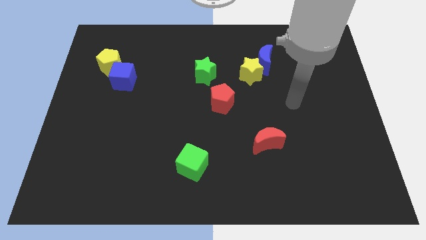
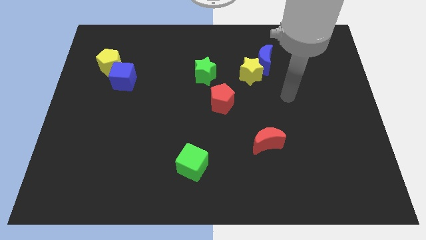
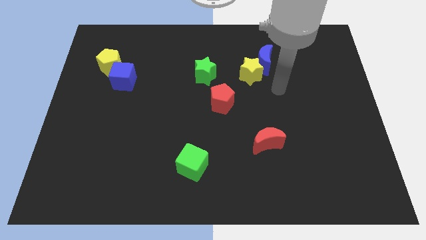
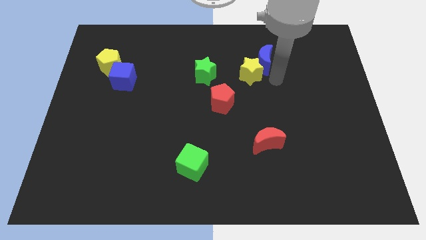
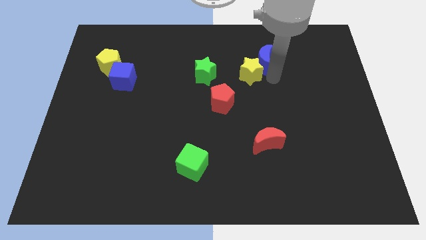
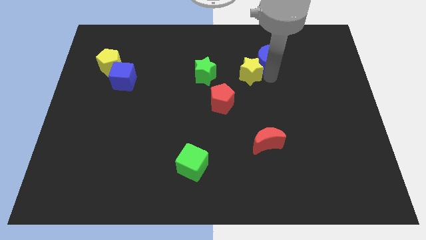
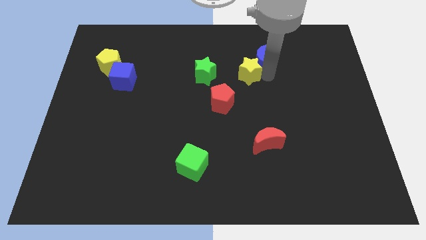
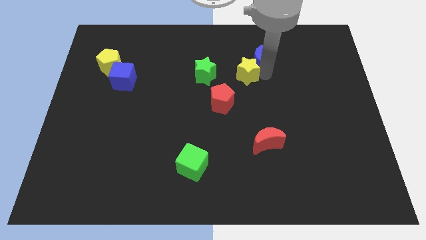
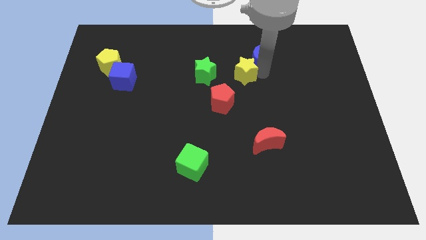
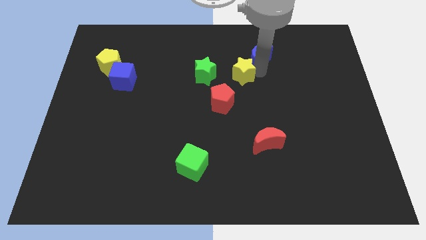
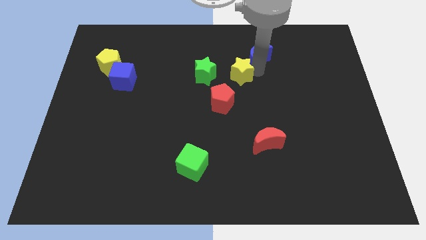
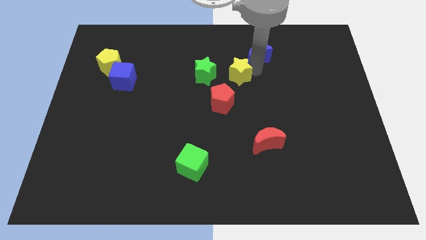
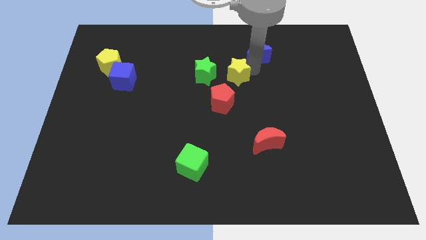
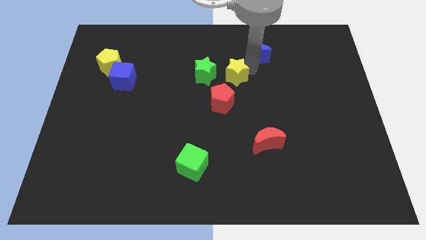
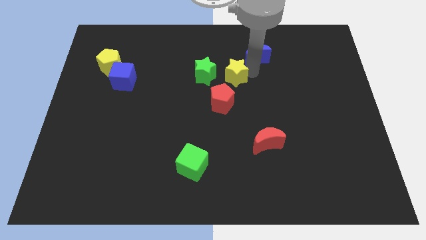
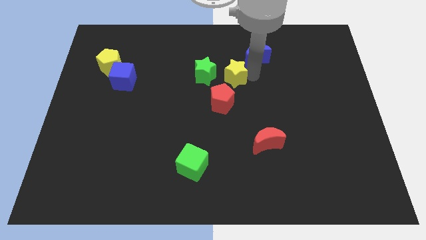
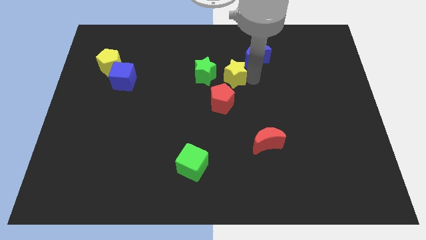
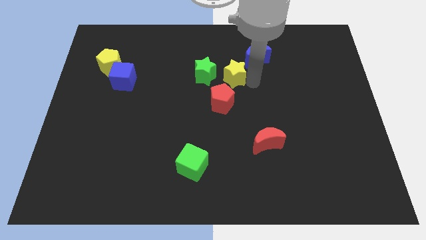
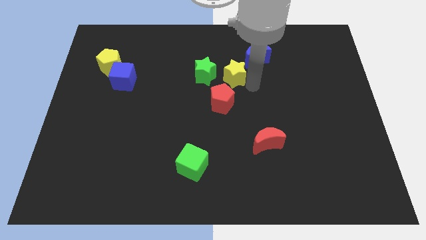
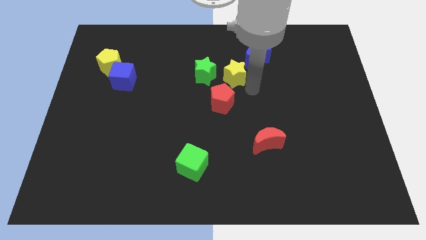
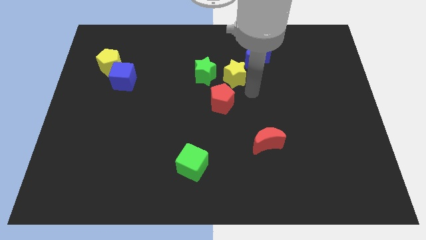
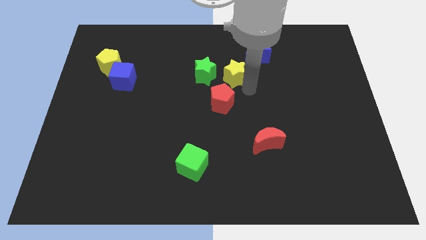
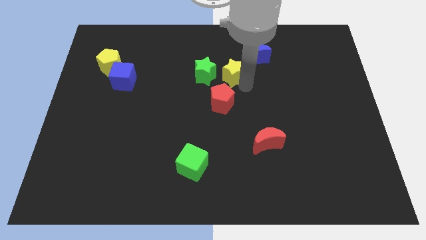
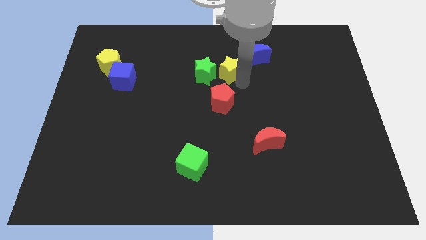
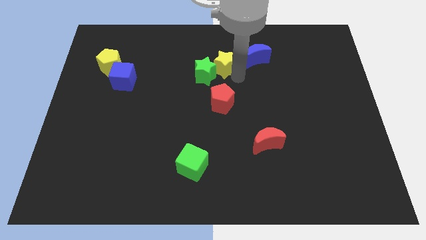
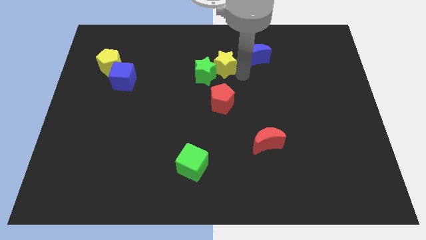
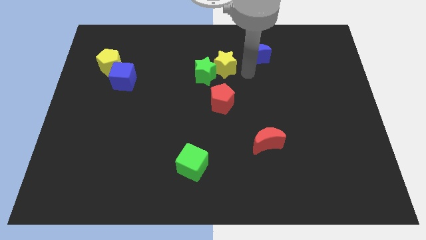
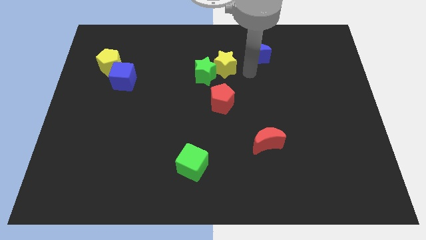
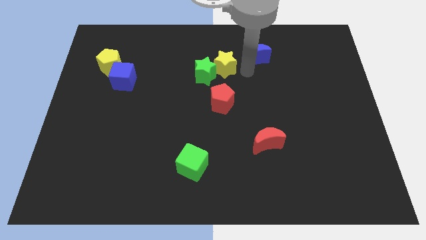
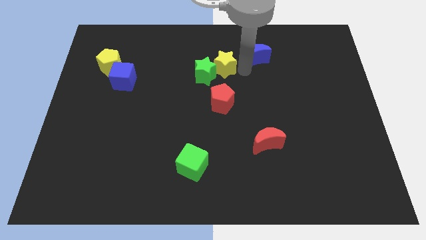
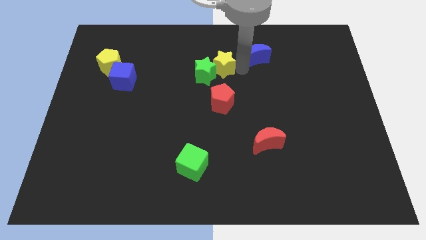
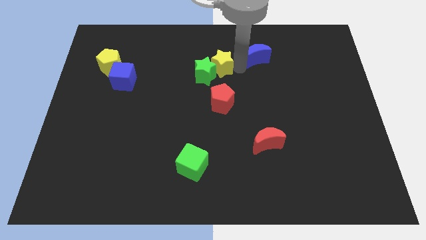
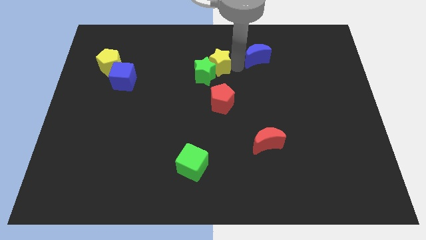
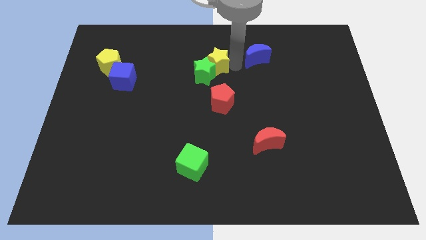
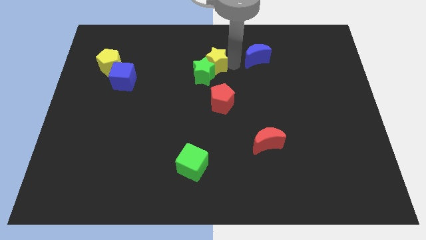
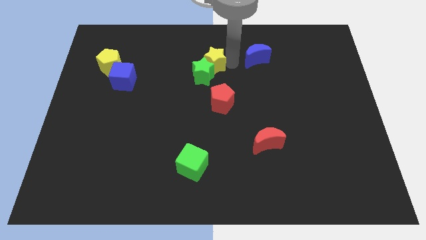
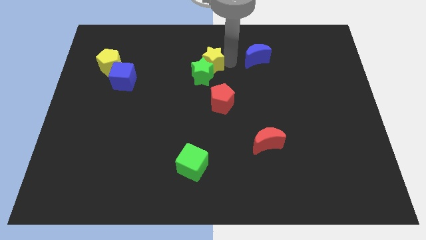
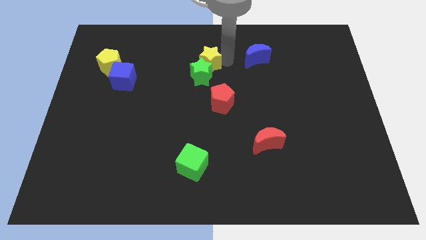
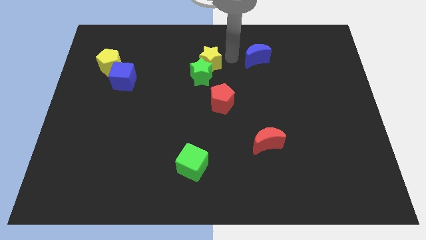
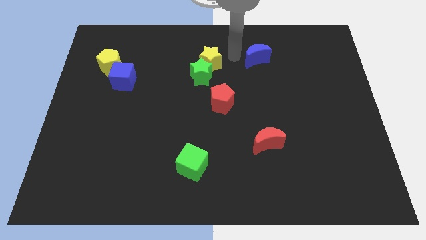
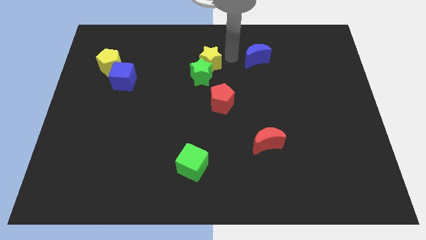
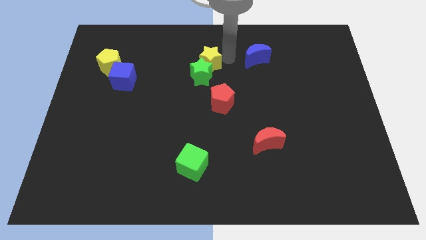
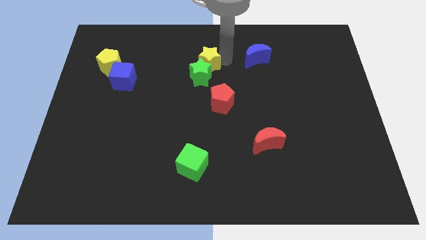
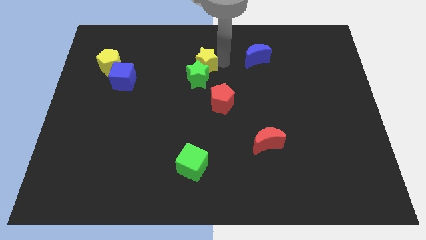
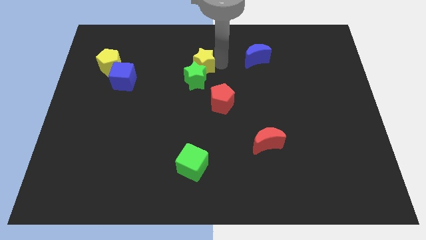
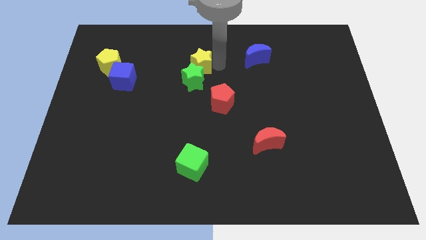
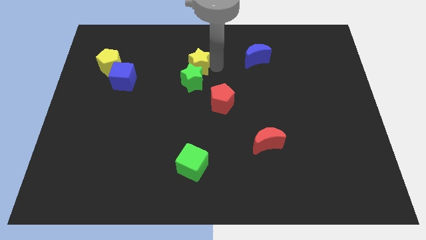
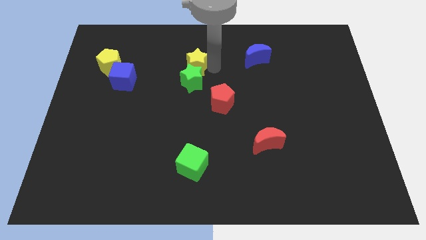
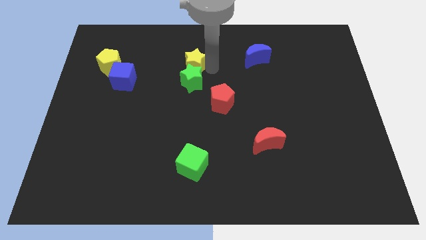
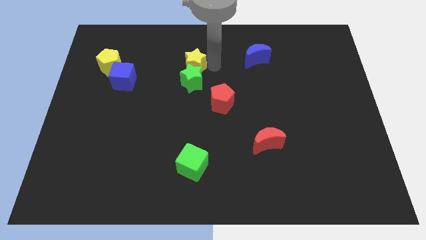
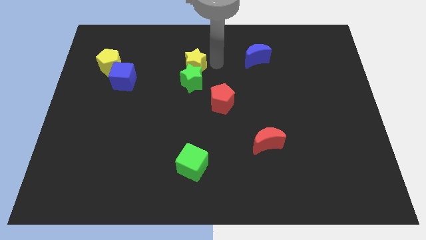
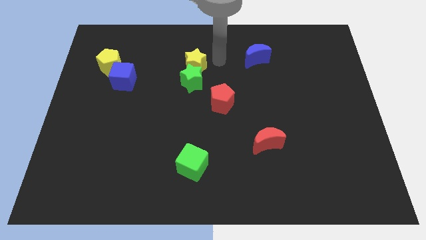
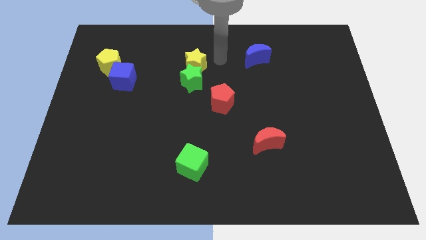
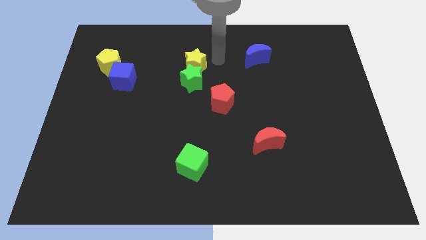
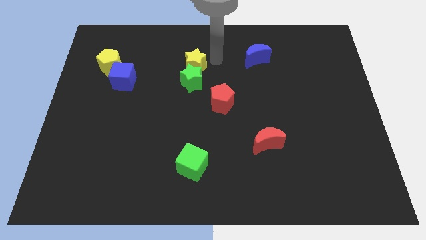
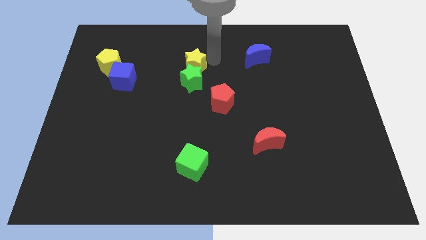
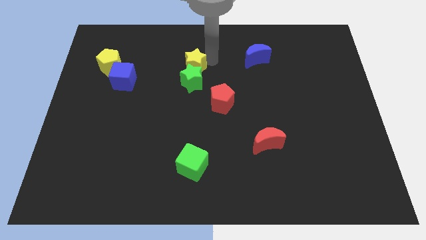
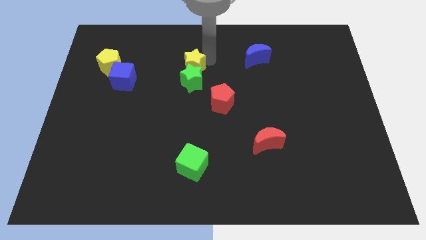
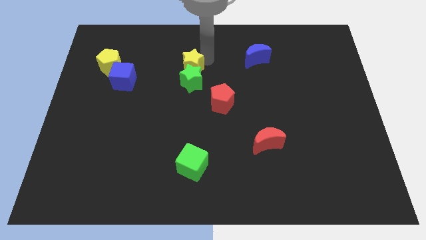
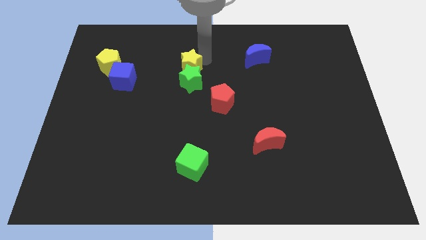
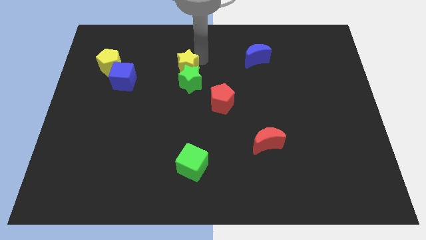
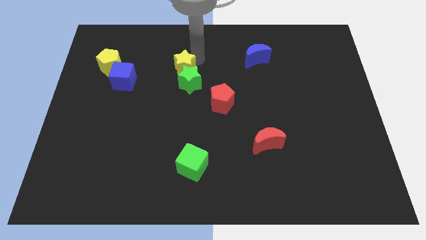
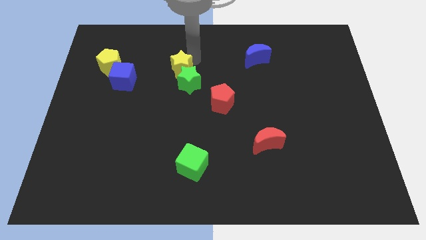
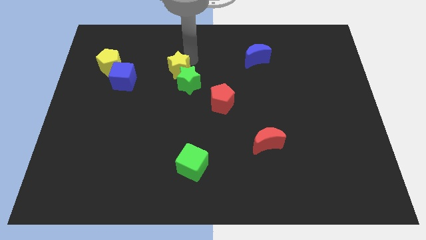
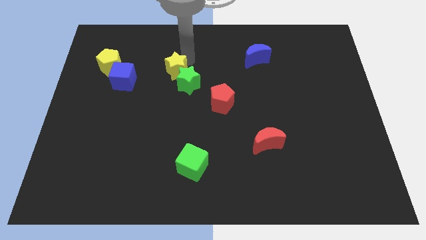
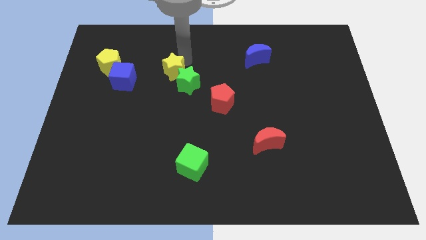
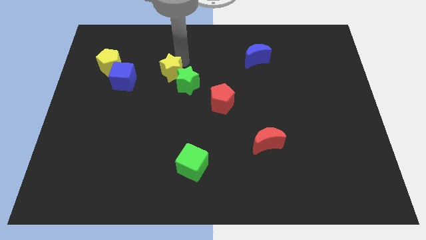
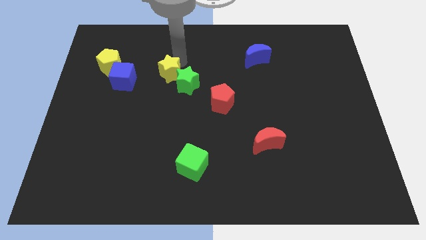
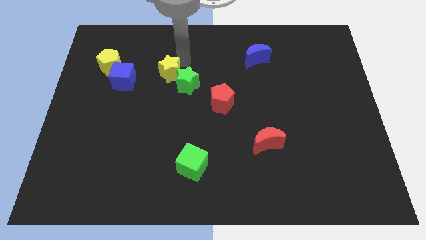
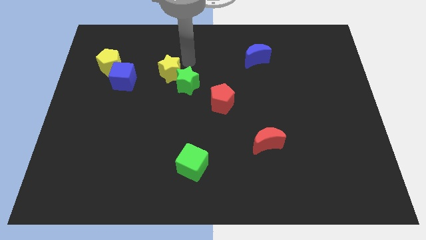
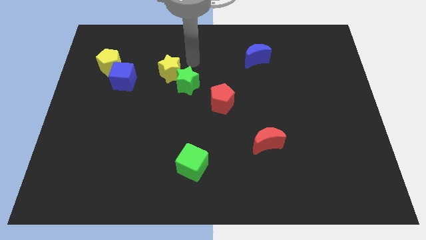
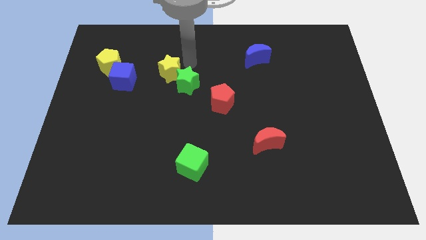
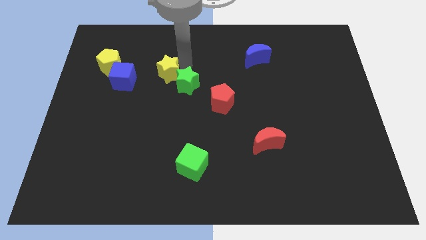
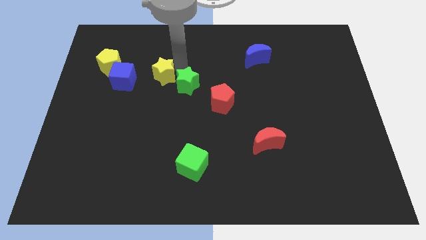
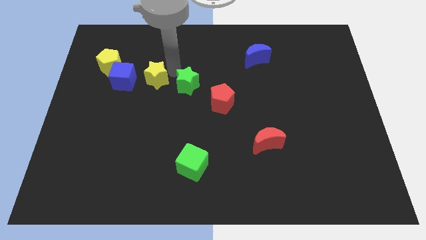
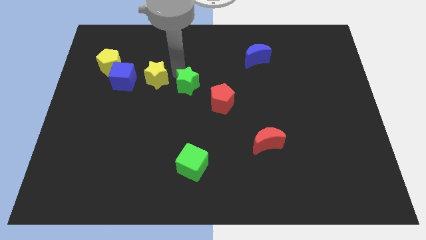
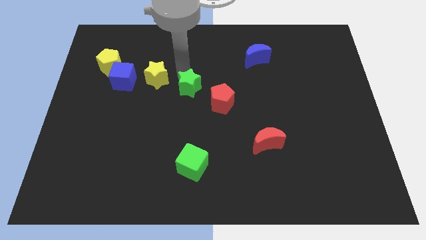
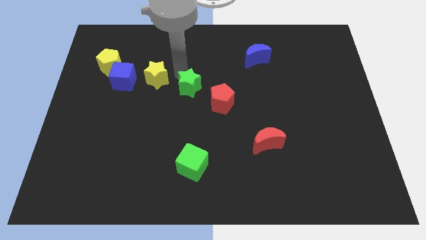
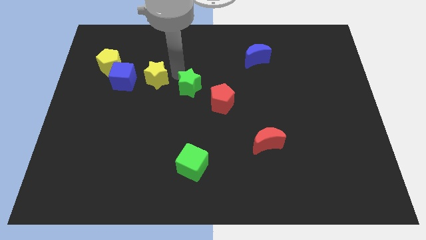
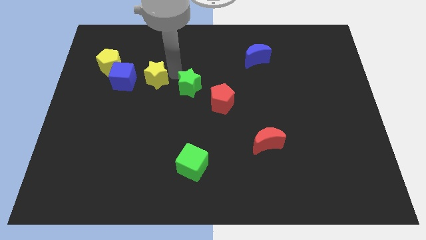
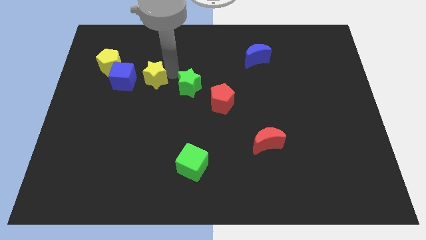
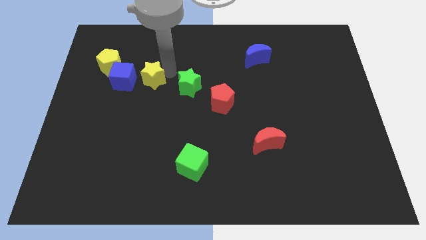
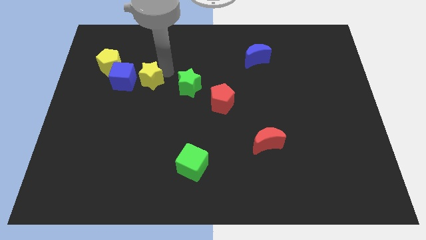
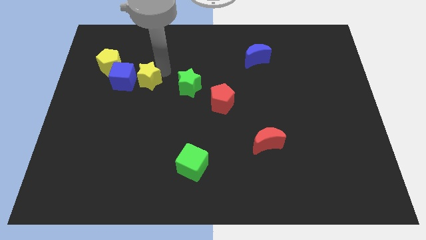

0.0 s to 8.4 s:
slide the yellow star diagonally down and to the right of the yellow pentagon
